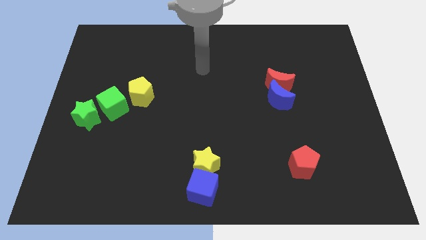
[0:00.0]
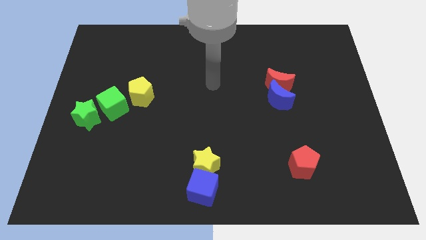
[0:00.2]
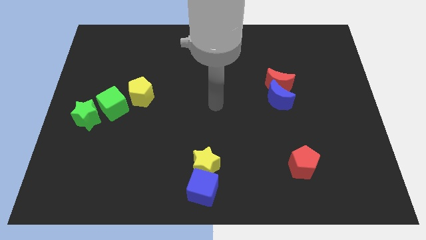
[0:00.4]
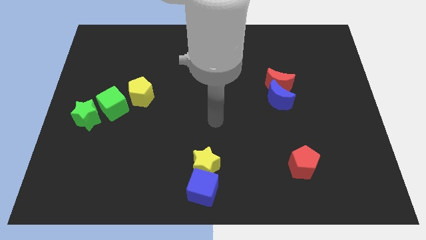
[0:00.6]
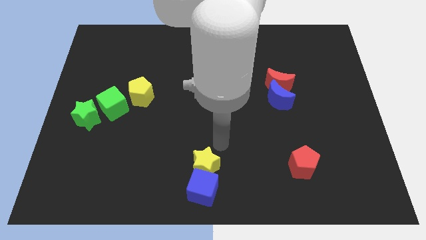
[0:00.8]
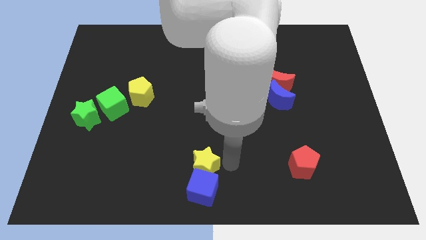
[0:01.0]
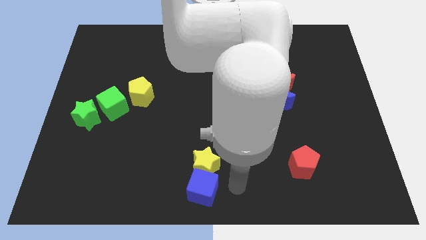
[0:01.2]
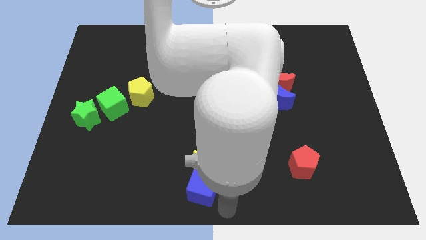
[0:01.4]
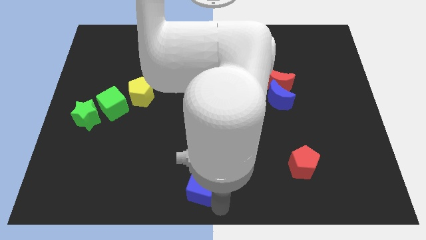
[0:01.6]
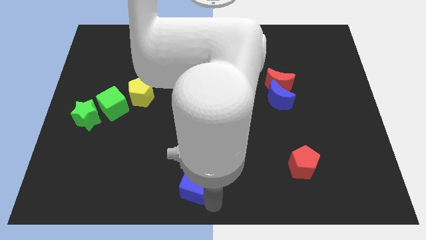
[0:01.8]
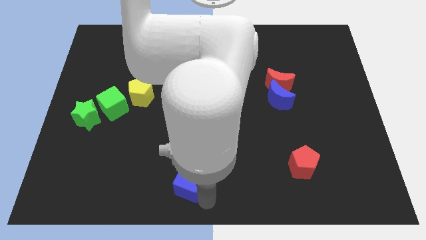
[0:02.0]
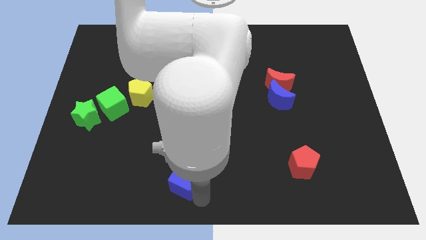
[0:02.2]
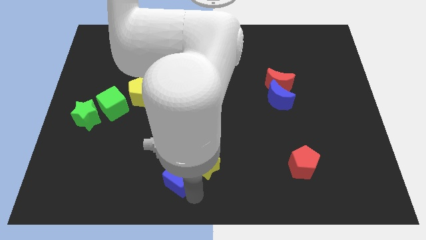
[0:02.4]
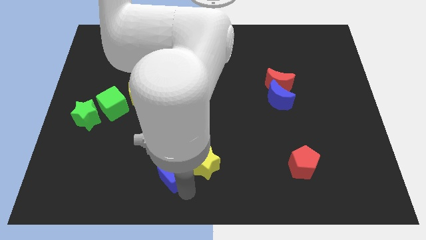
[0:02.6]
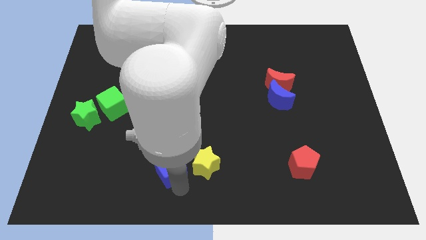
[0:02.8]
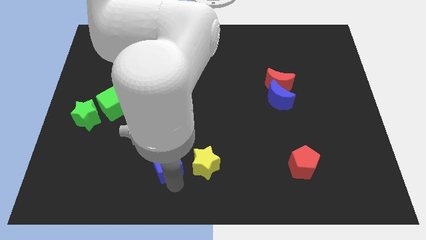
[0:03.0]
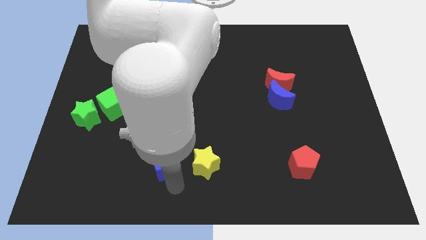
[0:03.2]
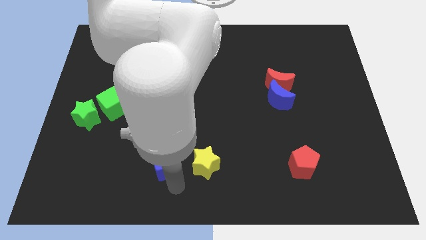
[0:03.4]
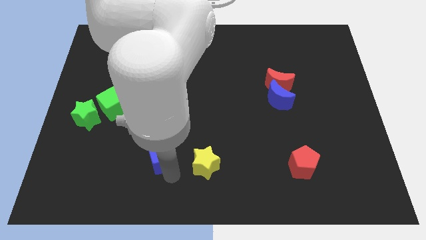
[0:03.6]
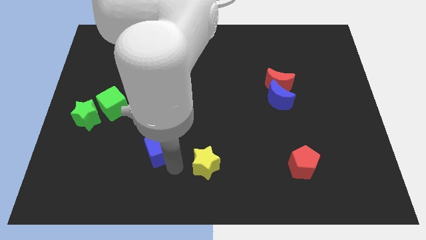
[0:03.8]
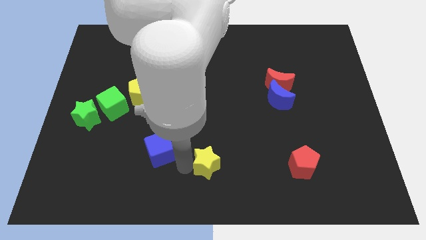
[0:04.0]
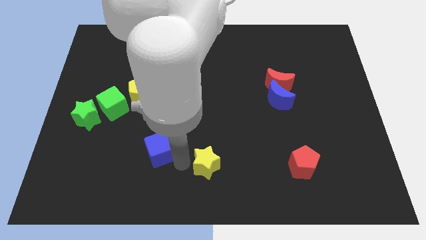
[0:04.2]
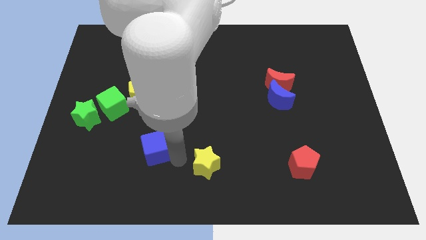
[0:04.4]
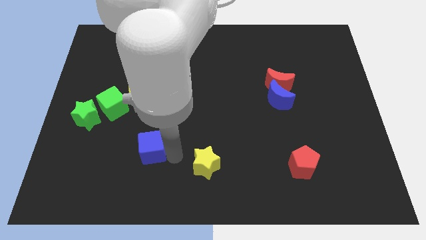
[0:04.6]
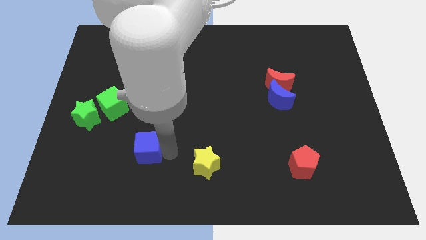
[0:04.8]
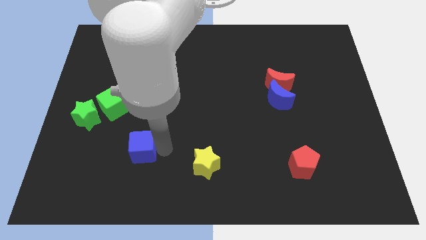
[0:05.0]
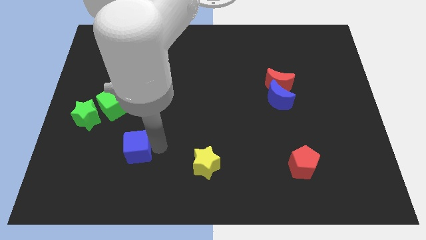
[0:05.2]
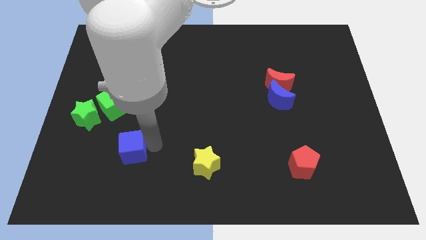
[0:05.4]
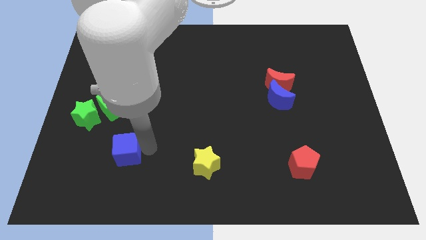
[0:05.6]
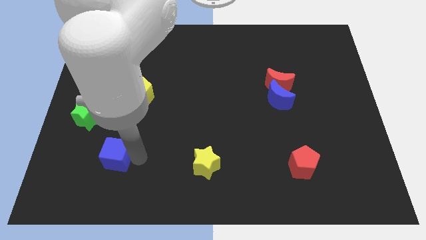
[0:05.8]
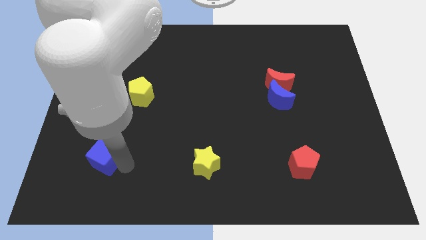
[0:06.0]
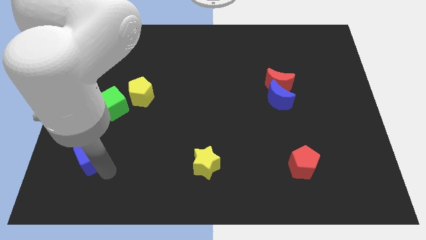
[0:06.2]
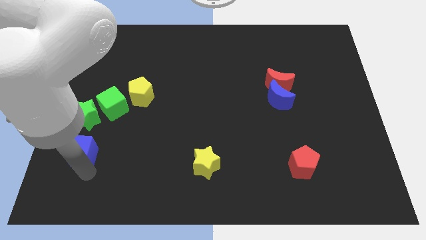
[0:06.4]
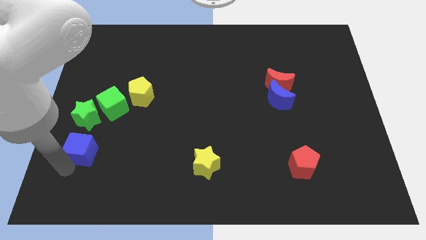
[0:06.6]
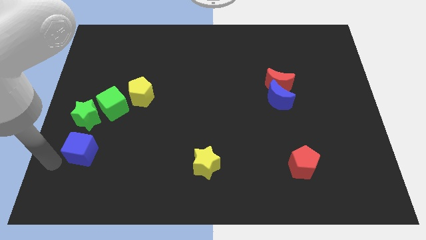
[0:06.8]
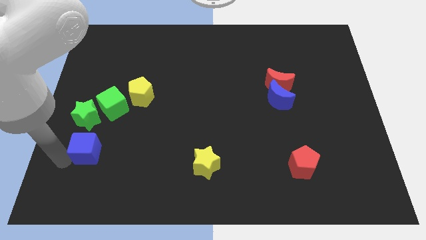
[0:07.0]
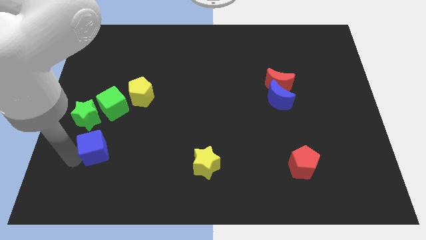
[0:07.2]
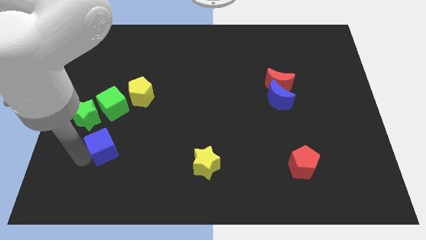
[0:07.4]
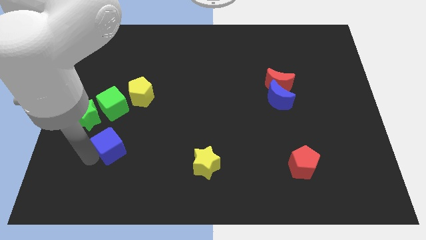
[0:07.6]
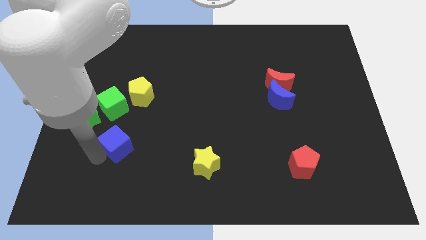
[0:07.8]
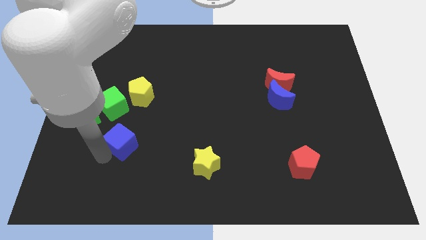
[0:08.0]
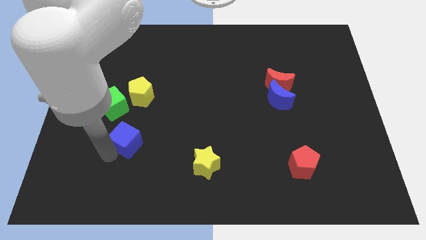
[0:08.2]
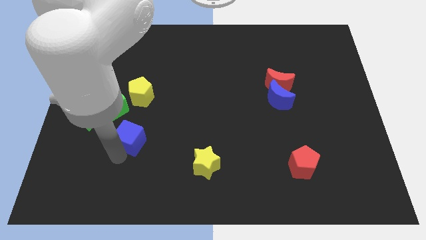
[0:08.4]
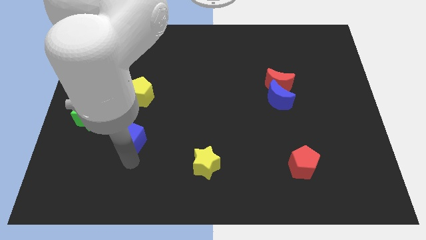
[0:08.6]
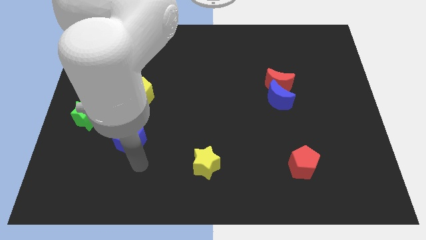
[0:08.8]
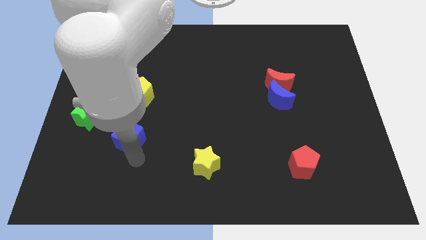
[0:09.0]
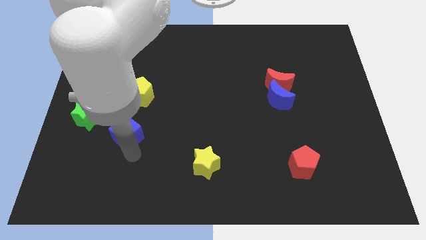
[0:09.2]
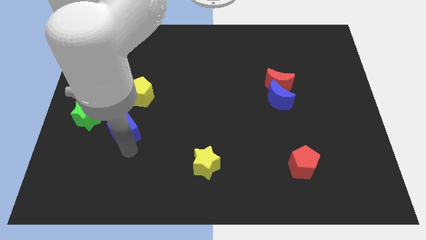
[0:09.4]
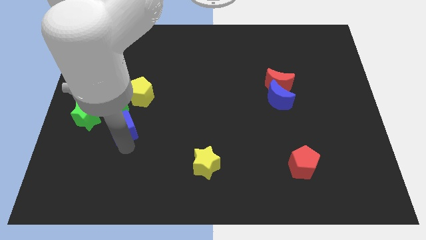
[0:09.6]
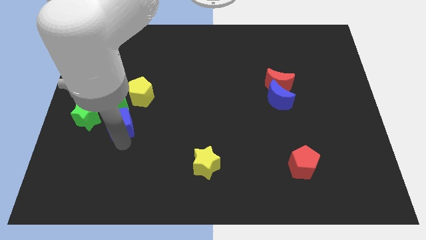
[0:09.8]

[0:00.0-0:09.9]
slide the blue cube next to the green cube

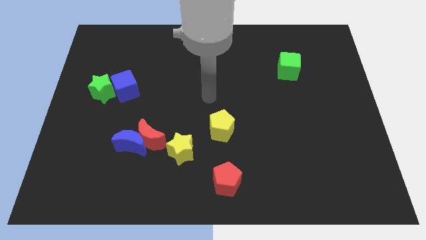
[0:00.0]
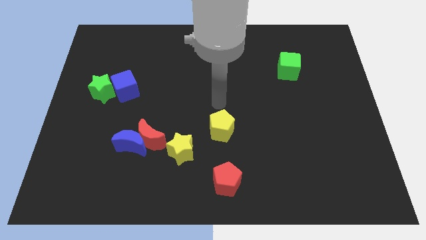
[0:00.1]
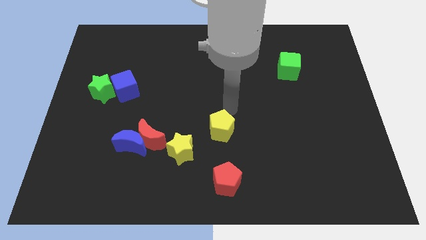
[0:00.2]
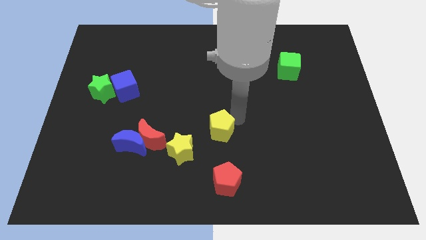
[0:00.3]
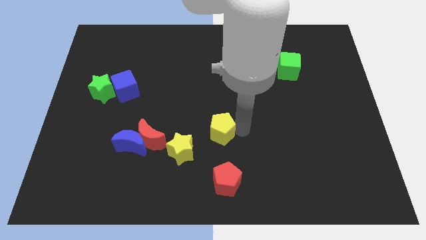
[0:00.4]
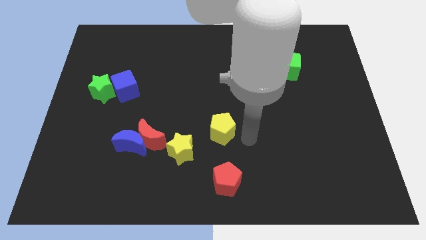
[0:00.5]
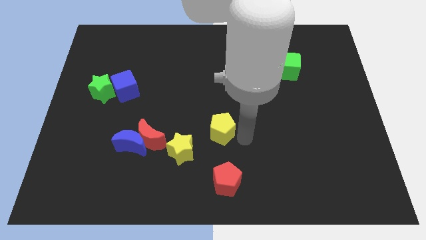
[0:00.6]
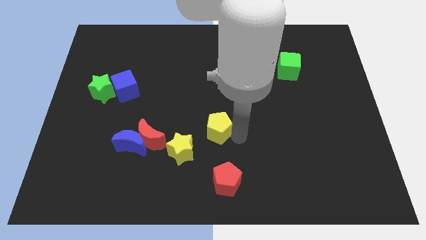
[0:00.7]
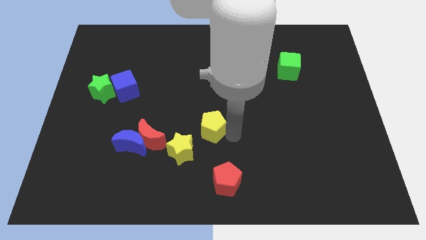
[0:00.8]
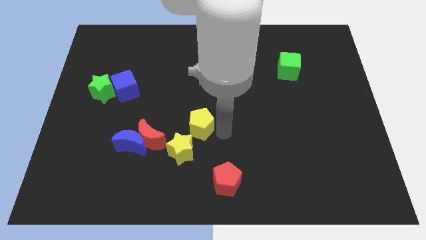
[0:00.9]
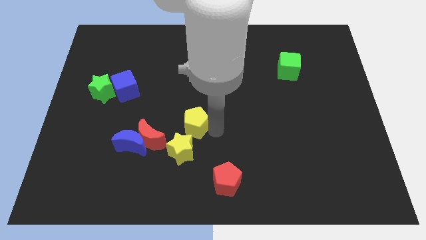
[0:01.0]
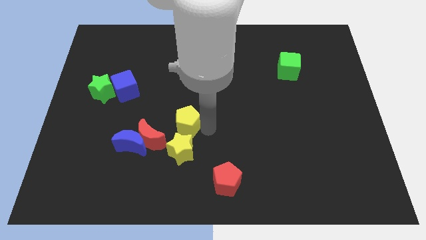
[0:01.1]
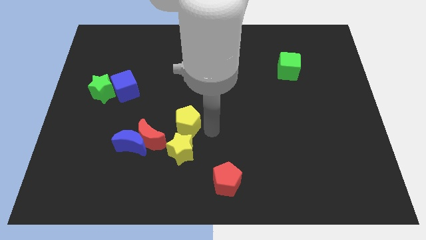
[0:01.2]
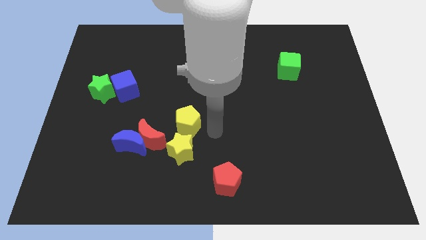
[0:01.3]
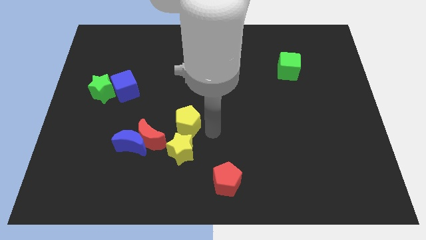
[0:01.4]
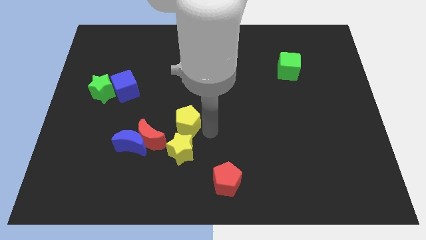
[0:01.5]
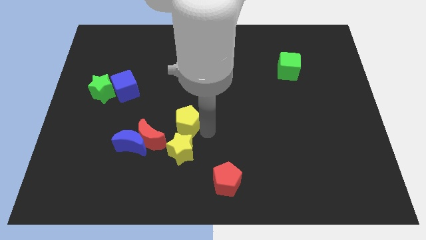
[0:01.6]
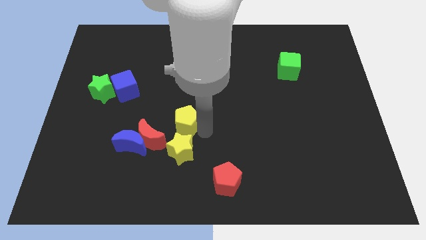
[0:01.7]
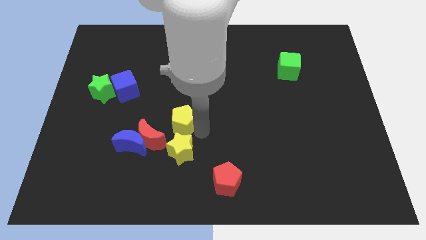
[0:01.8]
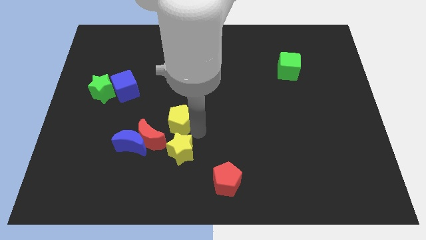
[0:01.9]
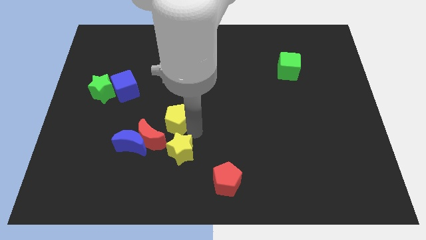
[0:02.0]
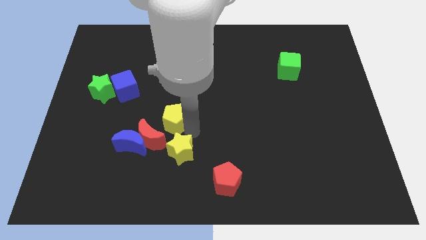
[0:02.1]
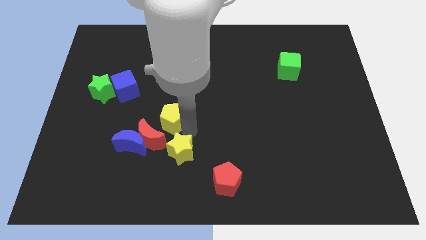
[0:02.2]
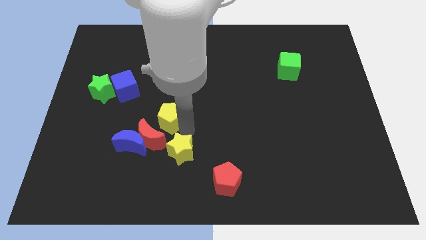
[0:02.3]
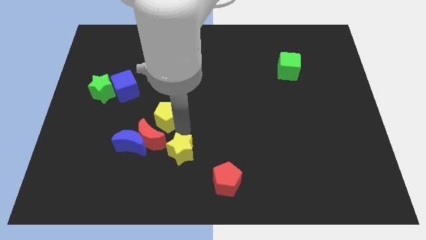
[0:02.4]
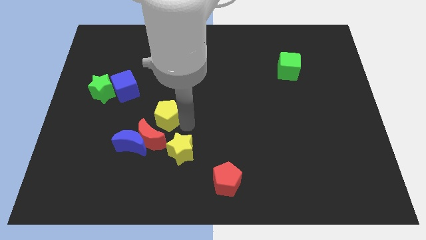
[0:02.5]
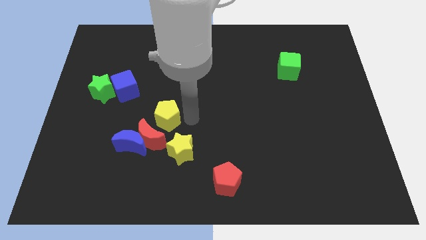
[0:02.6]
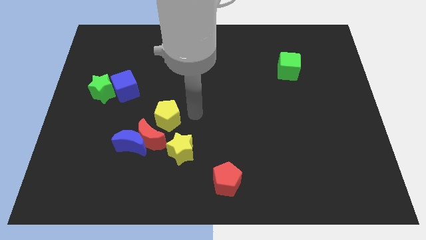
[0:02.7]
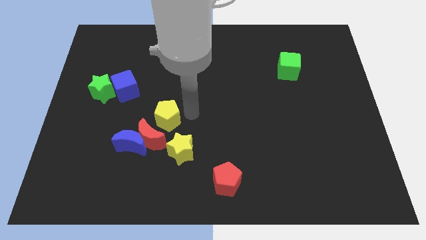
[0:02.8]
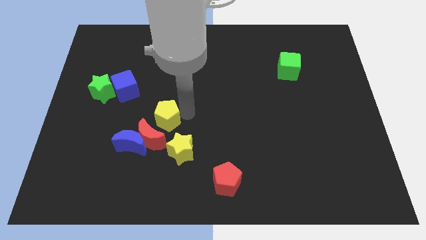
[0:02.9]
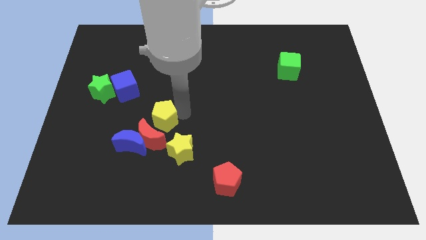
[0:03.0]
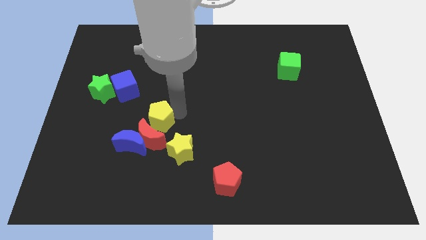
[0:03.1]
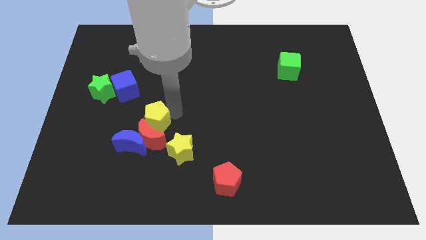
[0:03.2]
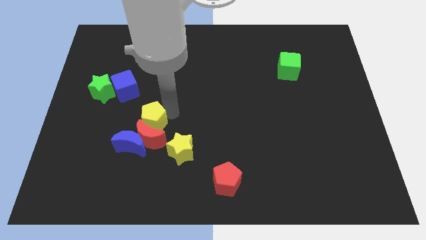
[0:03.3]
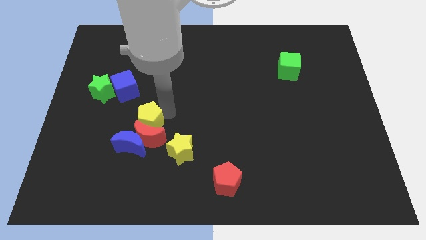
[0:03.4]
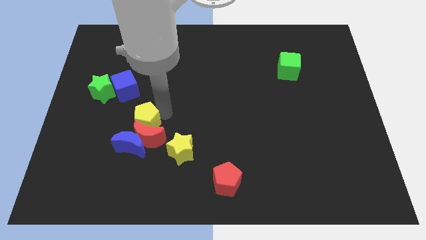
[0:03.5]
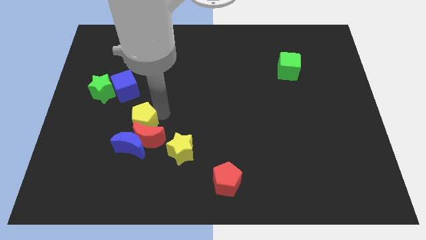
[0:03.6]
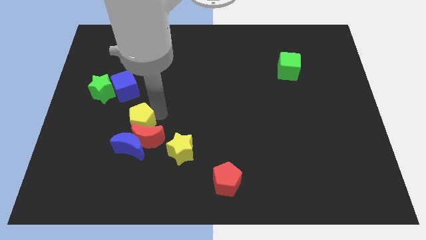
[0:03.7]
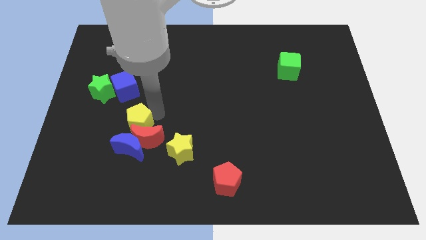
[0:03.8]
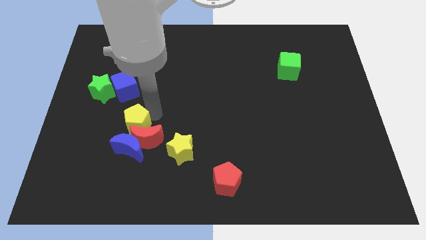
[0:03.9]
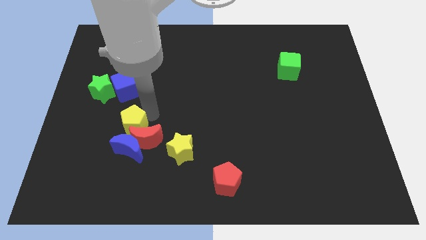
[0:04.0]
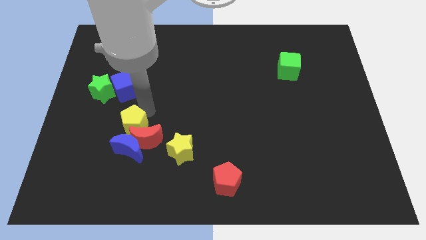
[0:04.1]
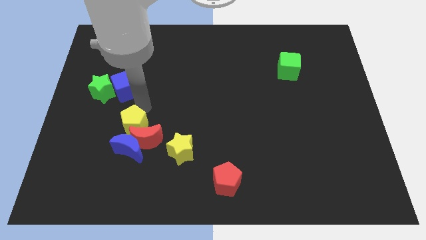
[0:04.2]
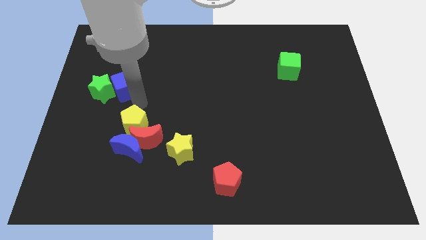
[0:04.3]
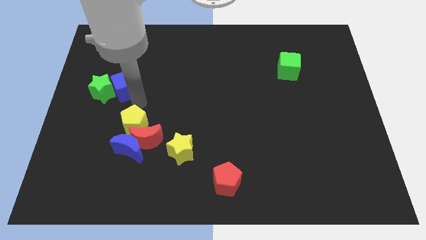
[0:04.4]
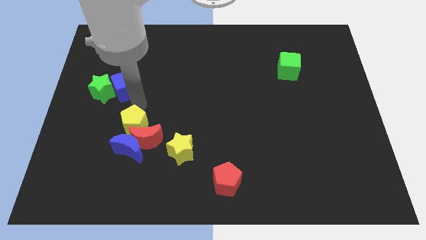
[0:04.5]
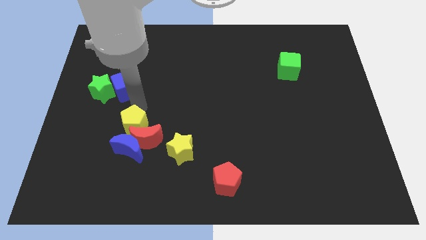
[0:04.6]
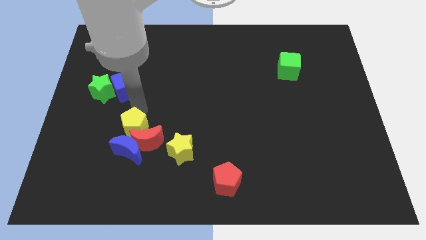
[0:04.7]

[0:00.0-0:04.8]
slide the yellow pentagon towards the blue moon
